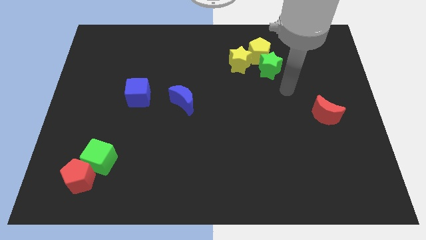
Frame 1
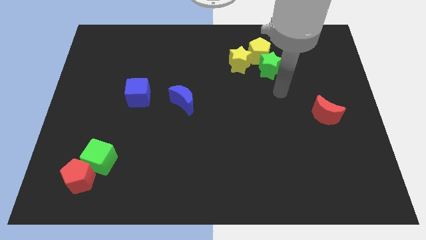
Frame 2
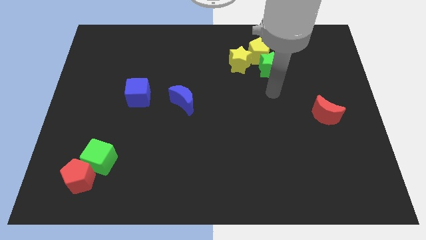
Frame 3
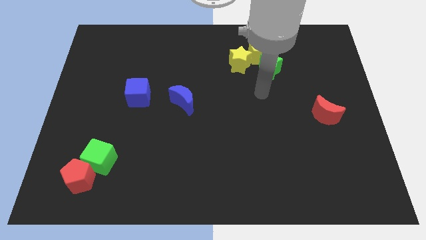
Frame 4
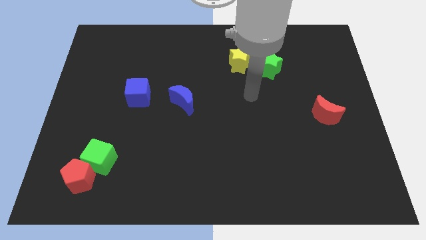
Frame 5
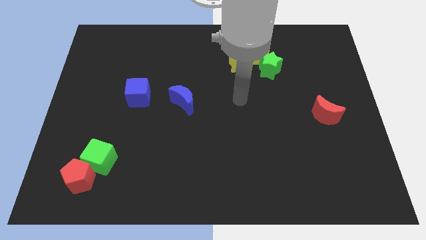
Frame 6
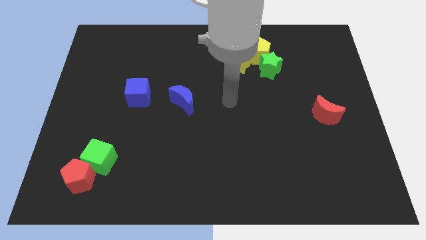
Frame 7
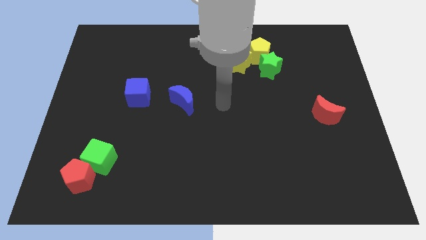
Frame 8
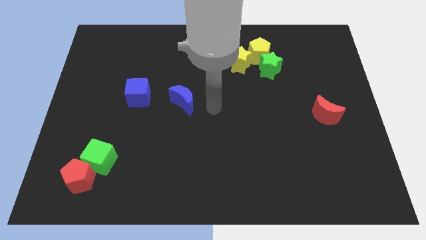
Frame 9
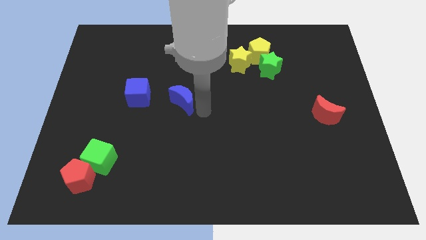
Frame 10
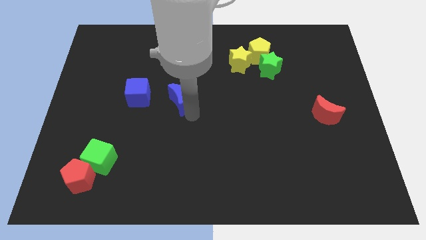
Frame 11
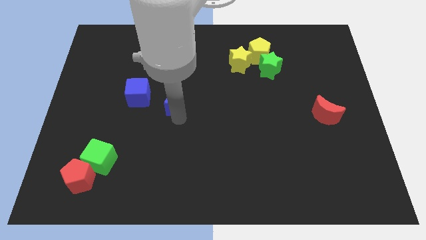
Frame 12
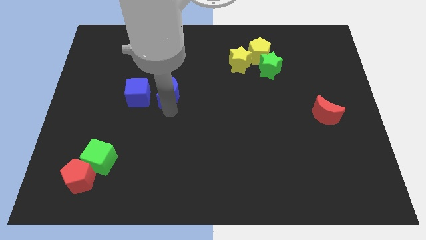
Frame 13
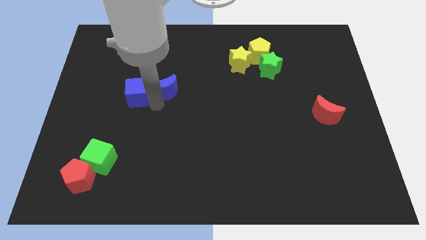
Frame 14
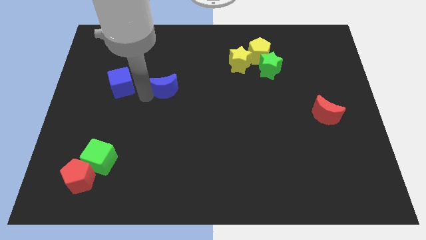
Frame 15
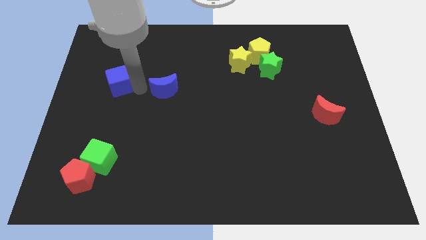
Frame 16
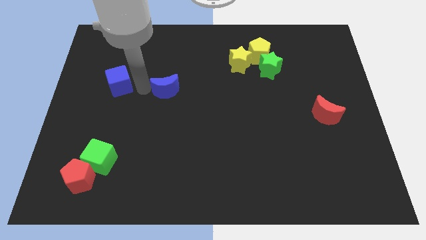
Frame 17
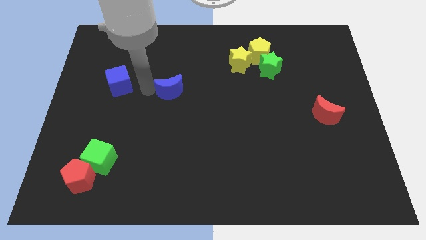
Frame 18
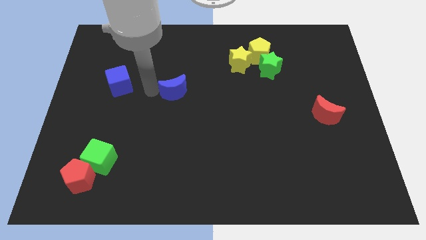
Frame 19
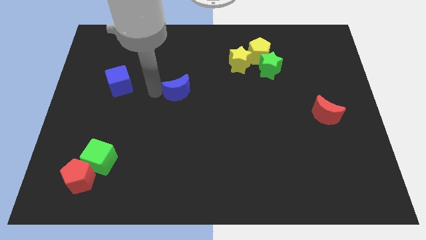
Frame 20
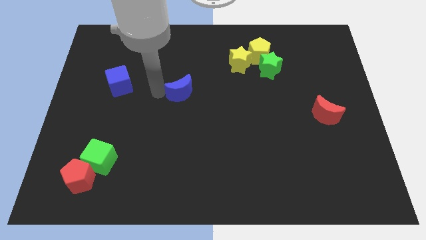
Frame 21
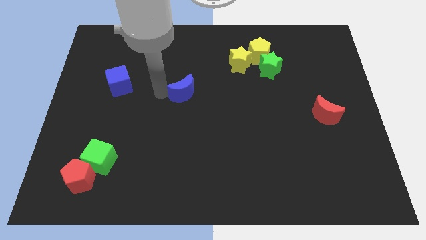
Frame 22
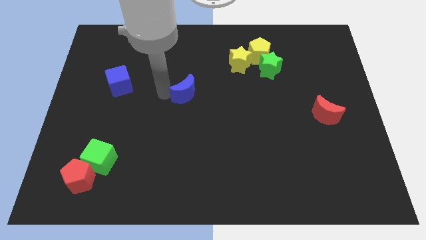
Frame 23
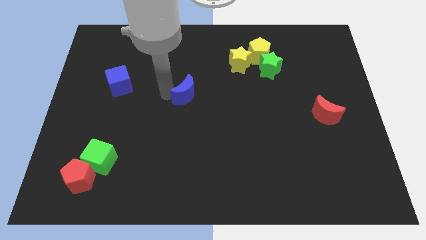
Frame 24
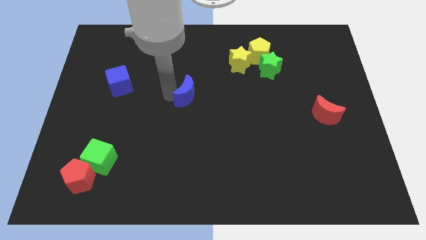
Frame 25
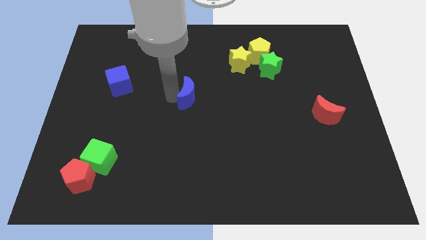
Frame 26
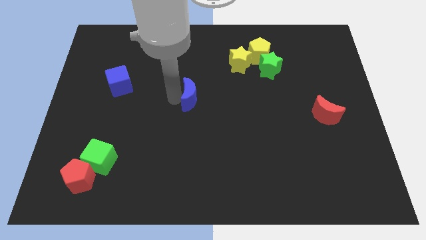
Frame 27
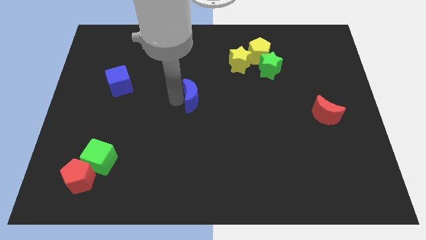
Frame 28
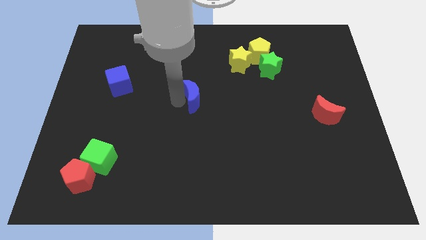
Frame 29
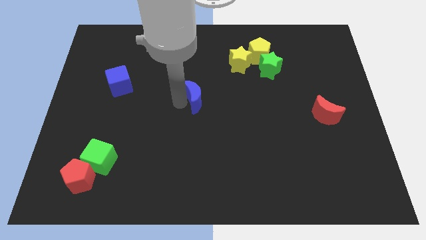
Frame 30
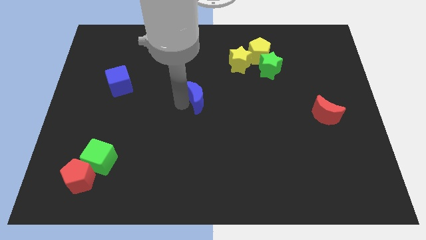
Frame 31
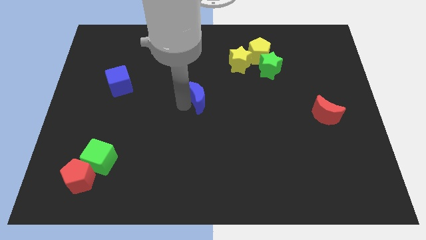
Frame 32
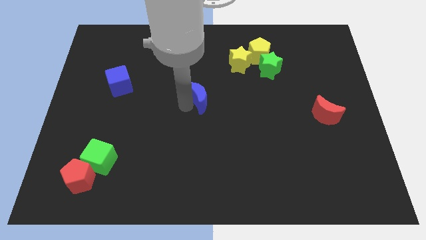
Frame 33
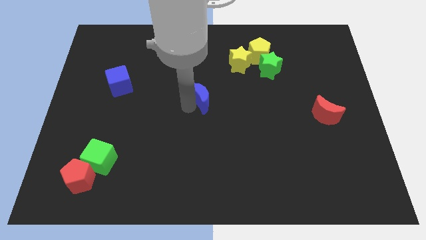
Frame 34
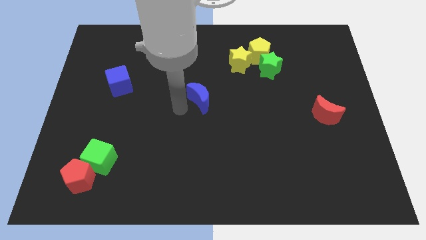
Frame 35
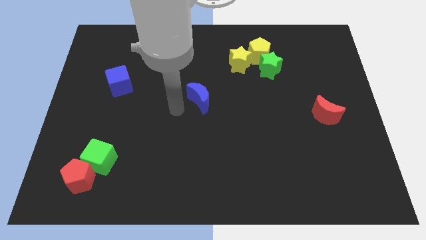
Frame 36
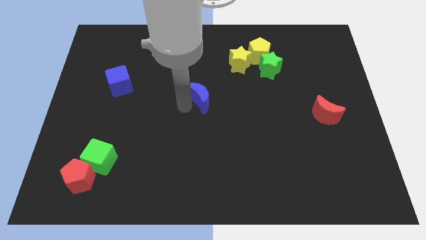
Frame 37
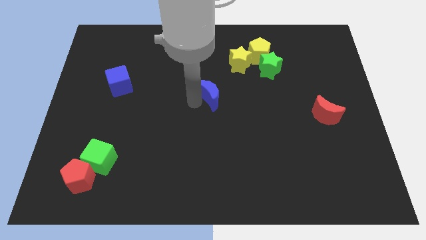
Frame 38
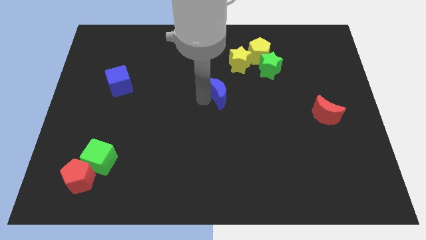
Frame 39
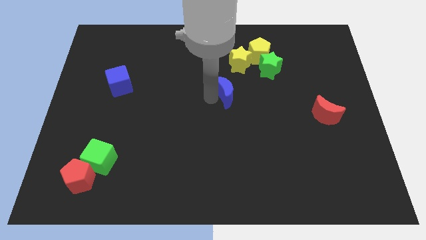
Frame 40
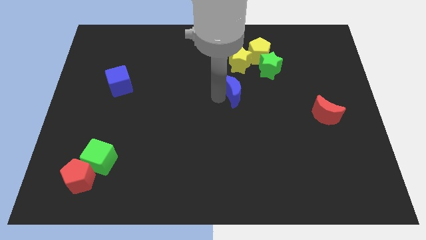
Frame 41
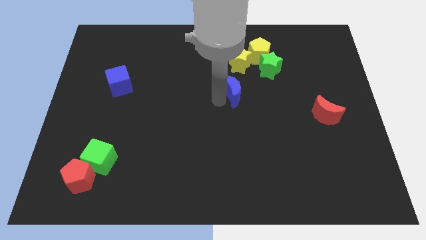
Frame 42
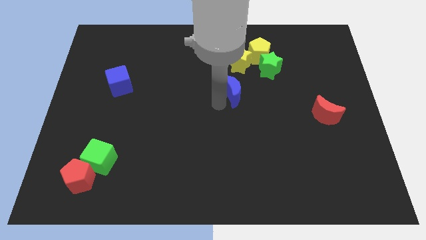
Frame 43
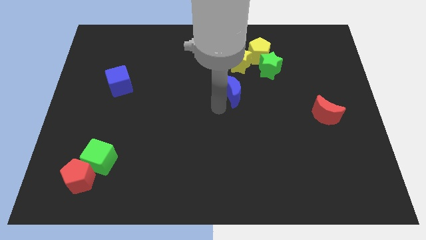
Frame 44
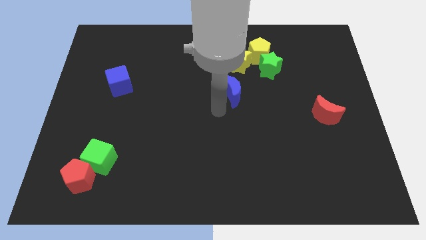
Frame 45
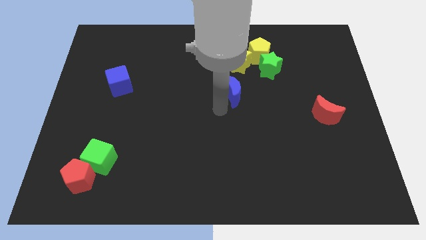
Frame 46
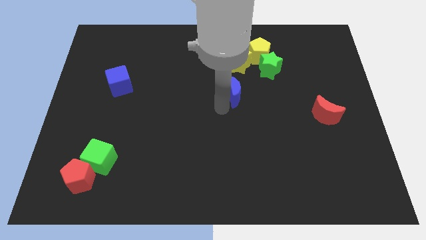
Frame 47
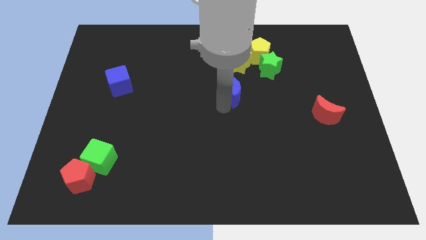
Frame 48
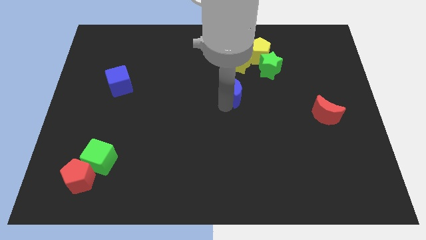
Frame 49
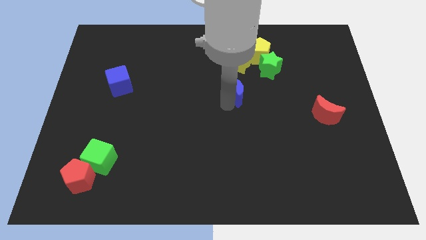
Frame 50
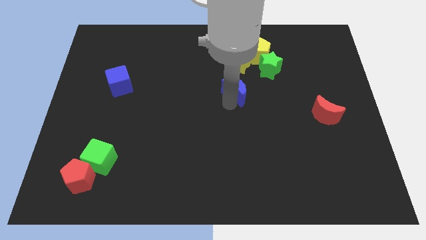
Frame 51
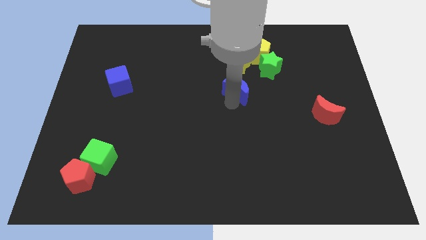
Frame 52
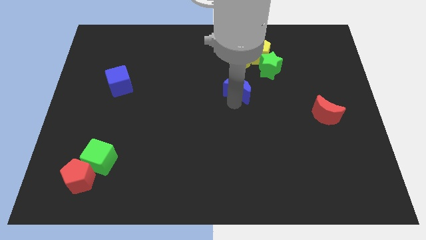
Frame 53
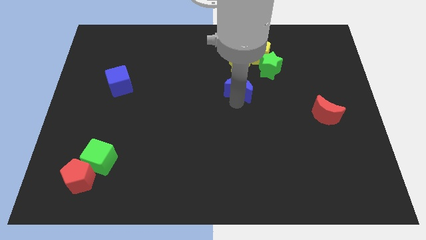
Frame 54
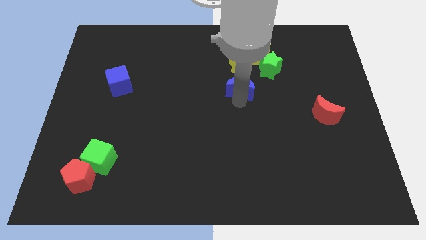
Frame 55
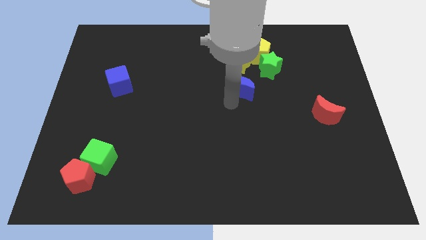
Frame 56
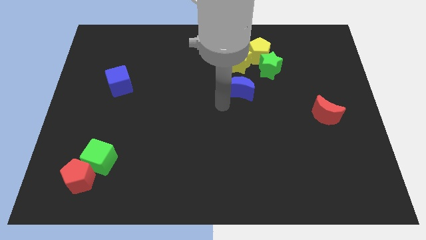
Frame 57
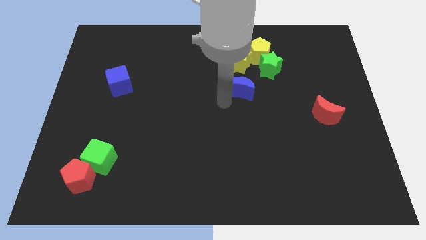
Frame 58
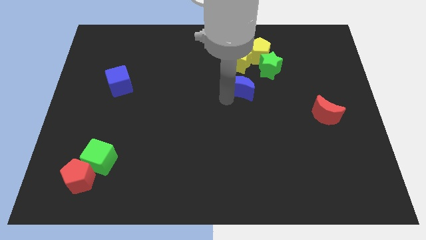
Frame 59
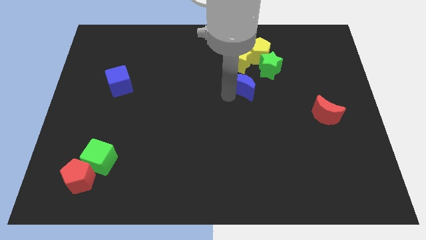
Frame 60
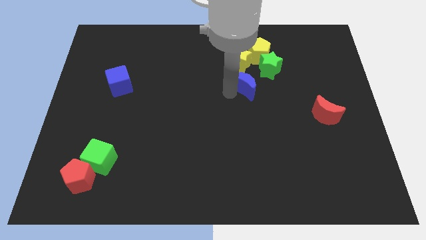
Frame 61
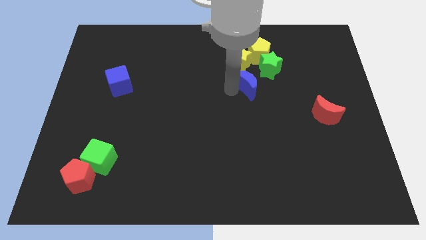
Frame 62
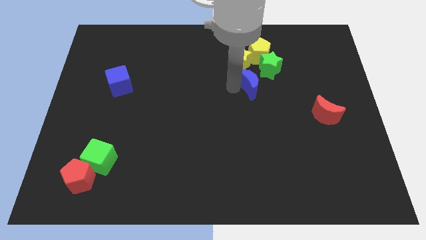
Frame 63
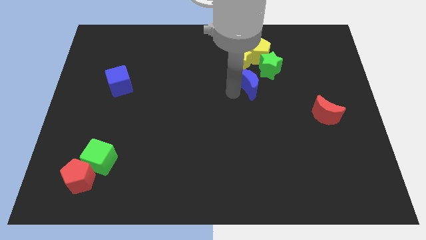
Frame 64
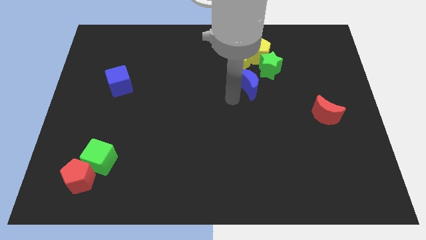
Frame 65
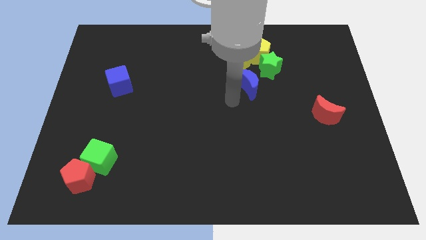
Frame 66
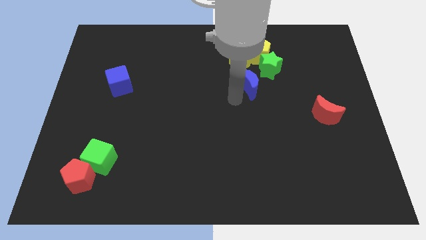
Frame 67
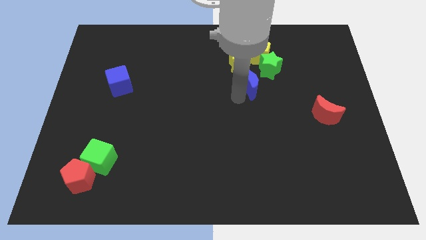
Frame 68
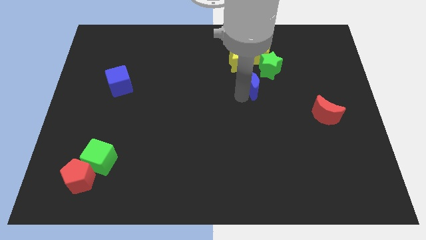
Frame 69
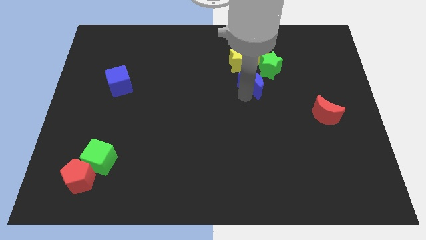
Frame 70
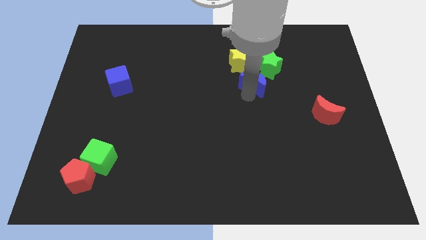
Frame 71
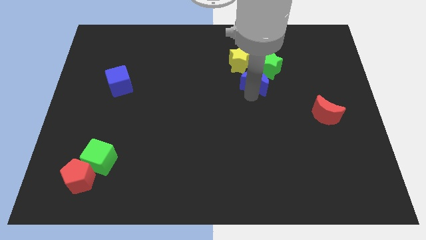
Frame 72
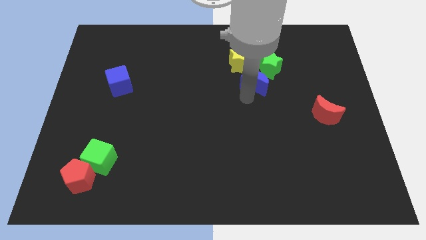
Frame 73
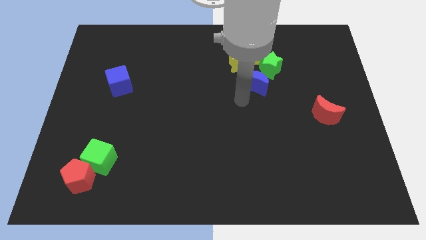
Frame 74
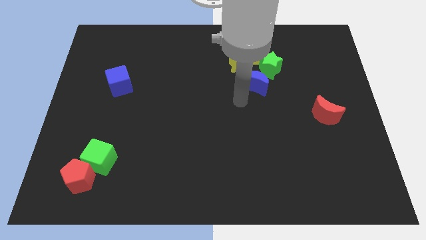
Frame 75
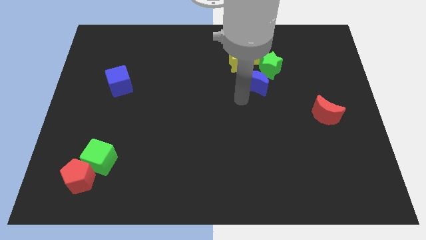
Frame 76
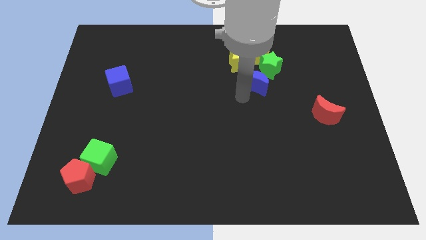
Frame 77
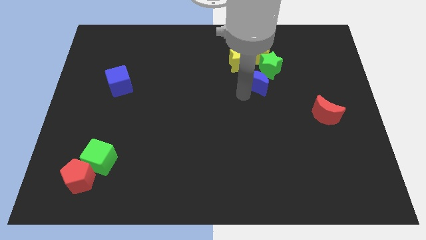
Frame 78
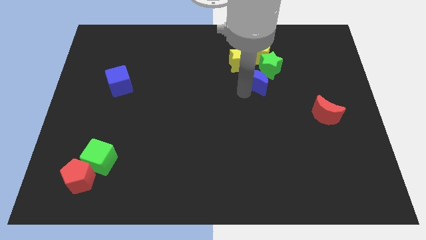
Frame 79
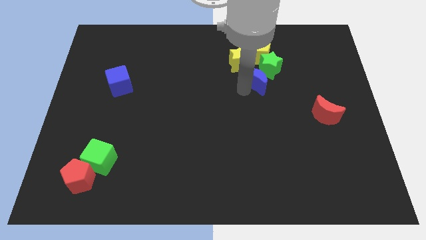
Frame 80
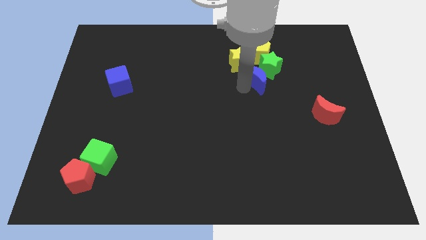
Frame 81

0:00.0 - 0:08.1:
move the blue moon towards the green star

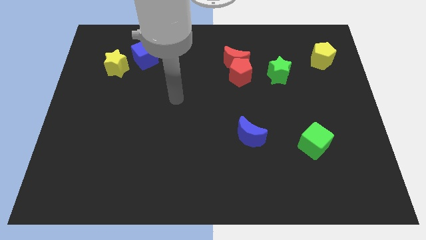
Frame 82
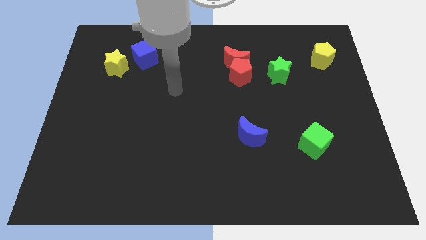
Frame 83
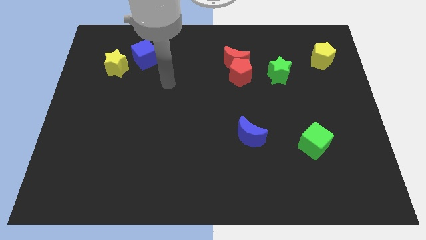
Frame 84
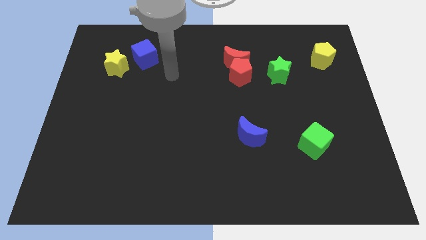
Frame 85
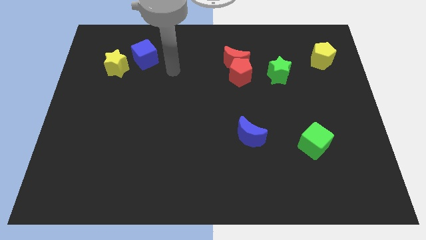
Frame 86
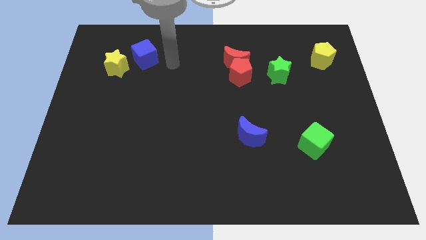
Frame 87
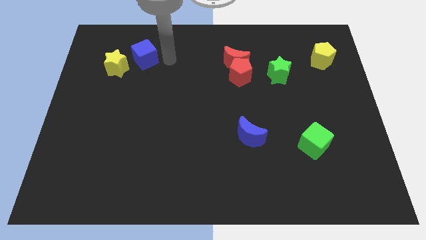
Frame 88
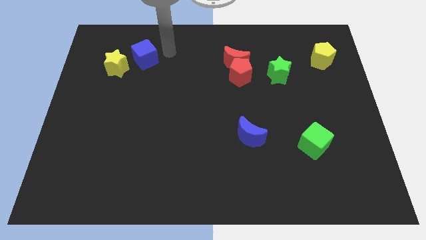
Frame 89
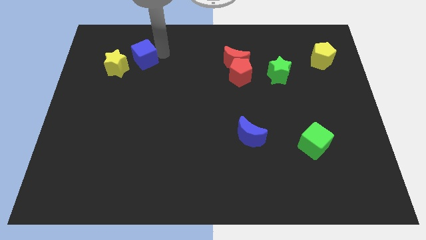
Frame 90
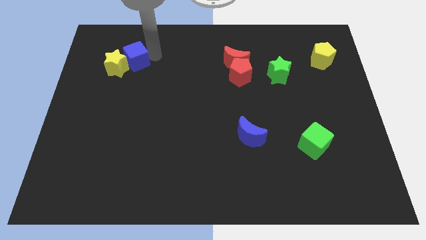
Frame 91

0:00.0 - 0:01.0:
slide the blue cube to the yellow star
